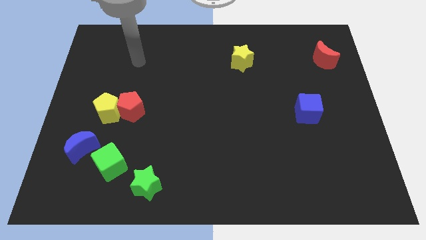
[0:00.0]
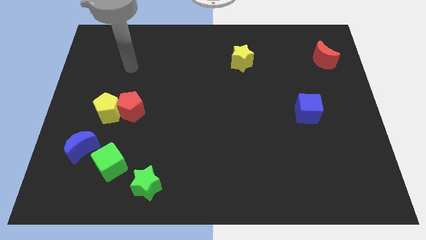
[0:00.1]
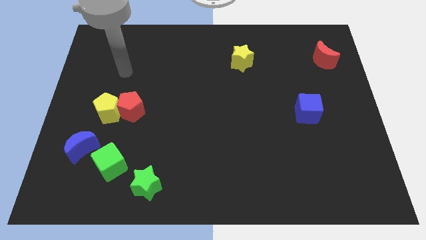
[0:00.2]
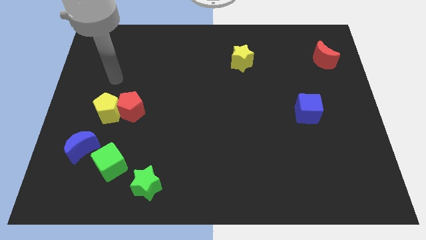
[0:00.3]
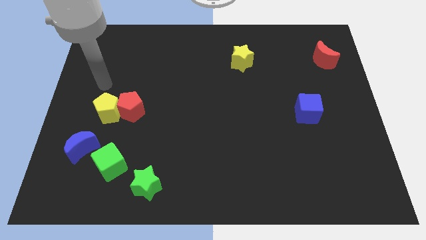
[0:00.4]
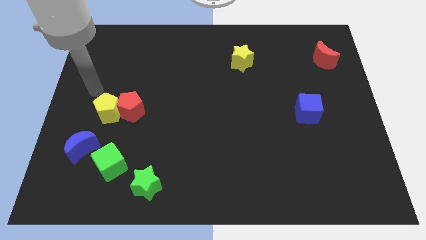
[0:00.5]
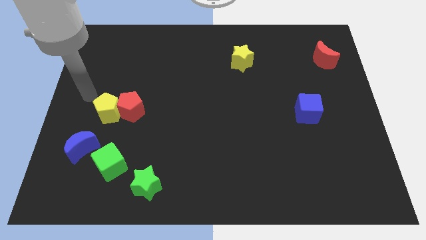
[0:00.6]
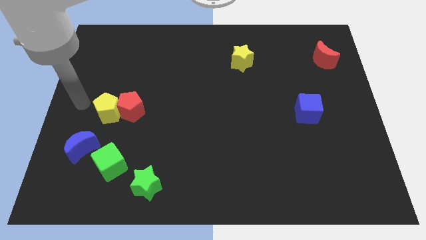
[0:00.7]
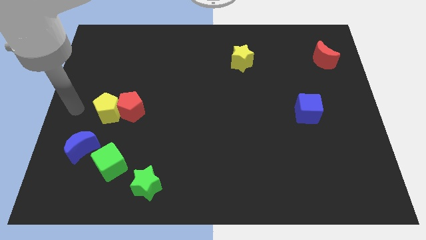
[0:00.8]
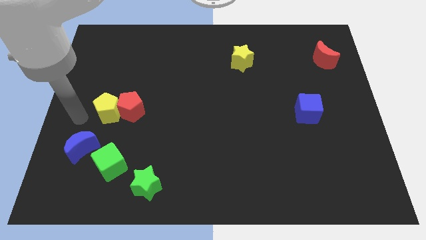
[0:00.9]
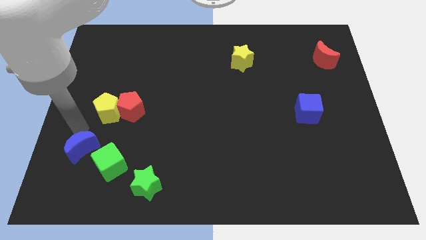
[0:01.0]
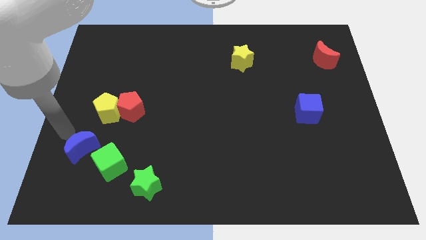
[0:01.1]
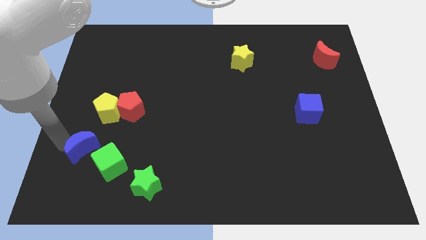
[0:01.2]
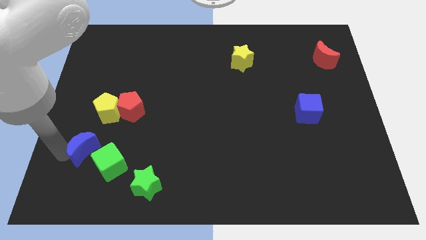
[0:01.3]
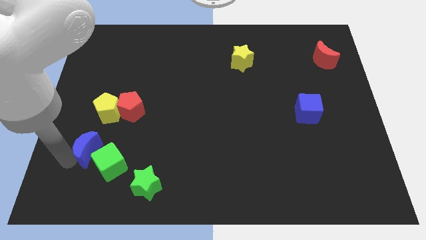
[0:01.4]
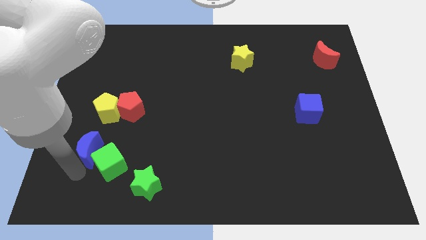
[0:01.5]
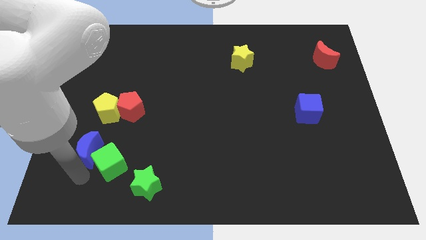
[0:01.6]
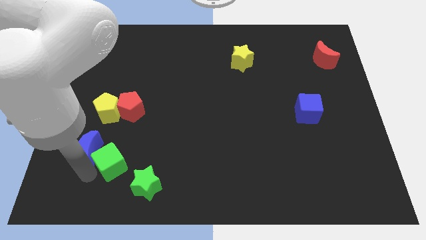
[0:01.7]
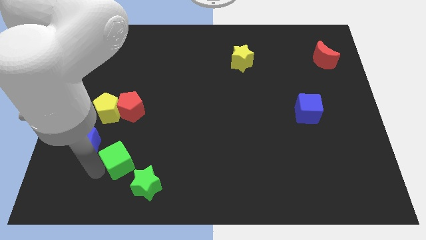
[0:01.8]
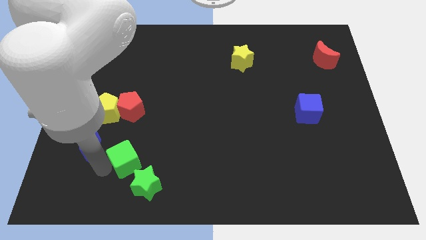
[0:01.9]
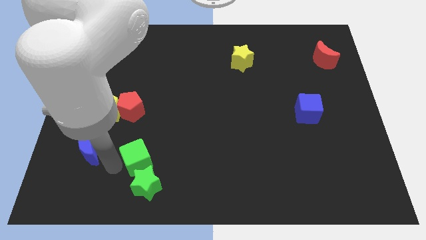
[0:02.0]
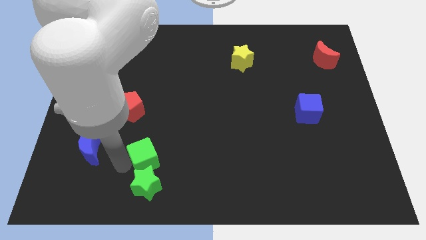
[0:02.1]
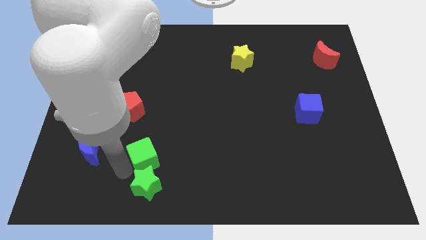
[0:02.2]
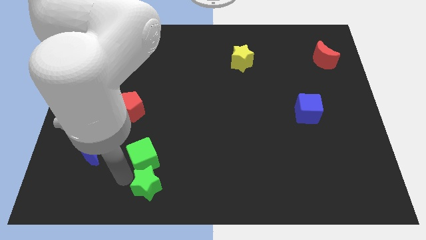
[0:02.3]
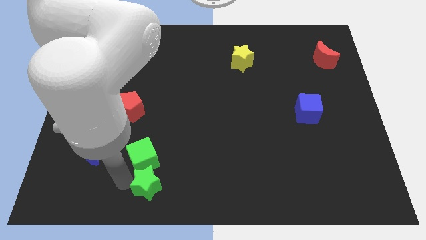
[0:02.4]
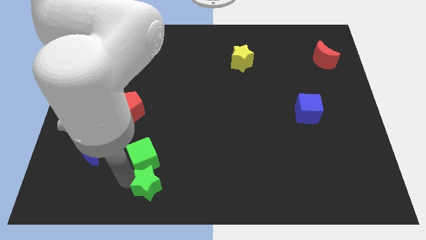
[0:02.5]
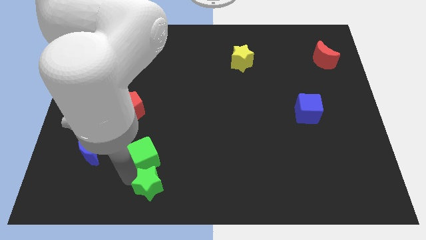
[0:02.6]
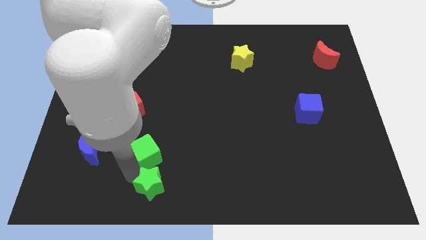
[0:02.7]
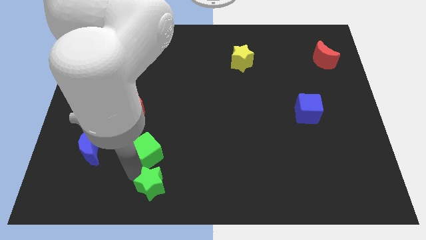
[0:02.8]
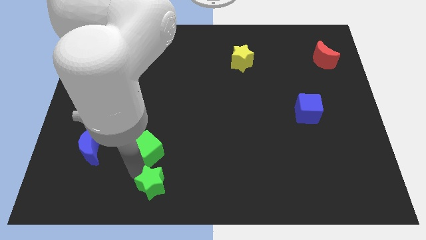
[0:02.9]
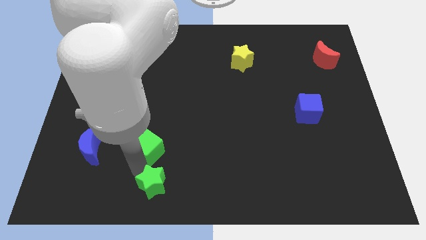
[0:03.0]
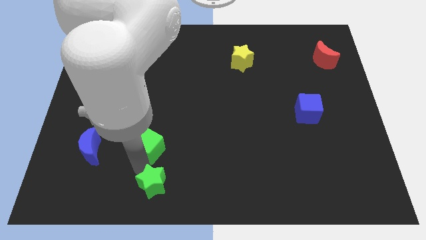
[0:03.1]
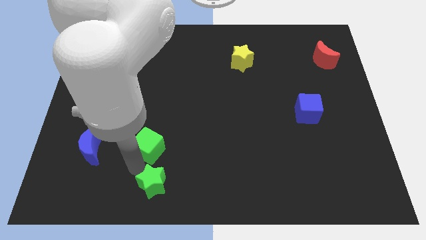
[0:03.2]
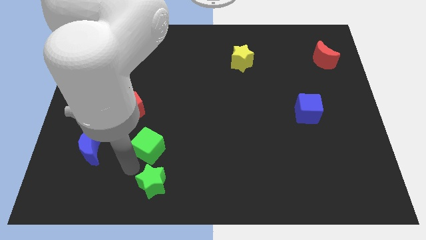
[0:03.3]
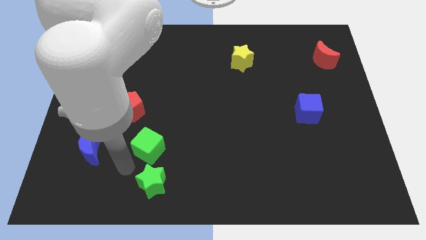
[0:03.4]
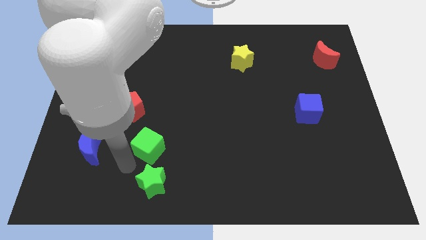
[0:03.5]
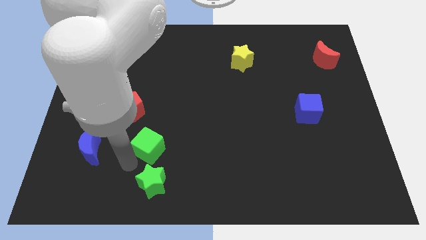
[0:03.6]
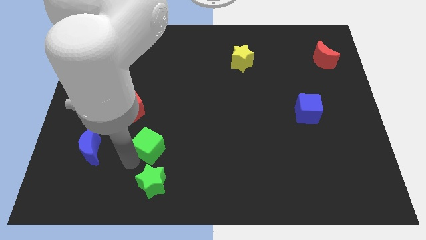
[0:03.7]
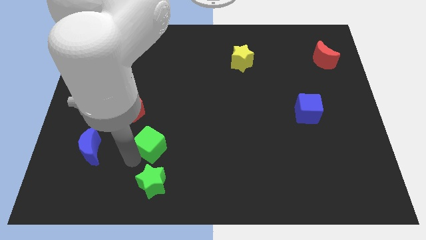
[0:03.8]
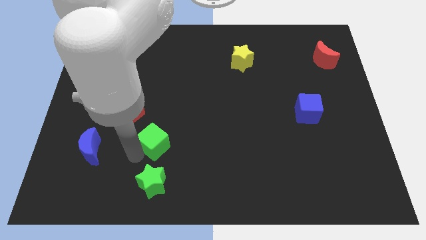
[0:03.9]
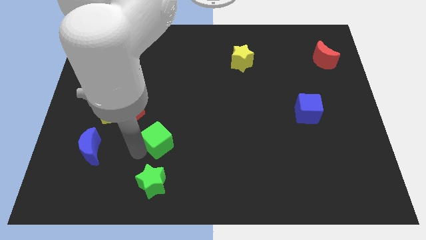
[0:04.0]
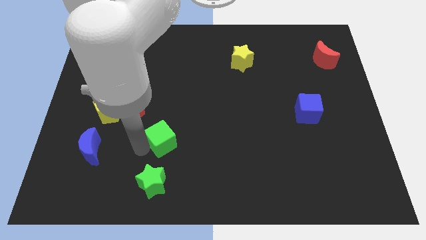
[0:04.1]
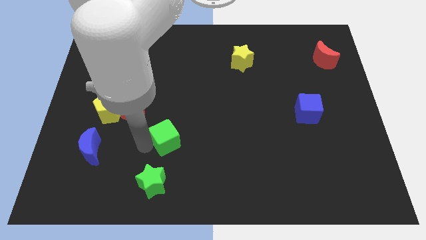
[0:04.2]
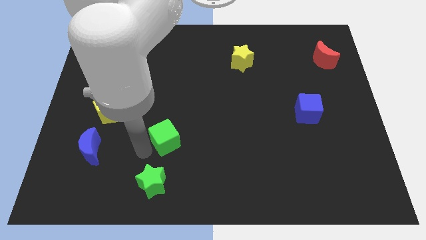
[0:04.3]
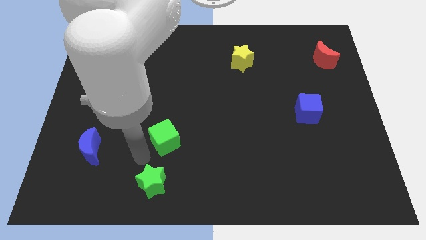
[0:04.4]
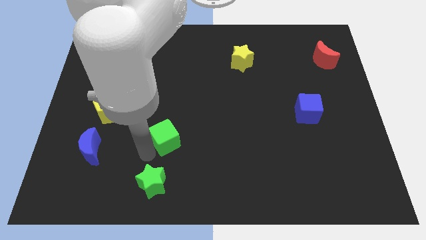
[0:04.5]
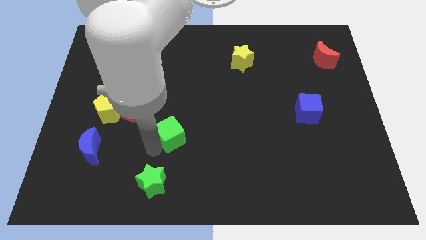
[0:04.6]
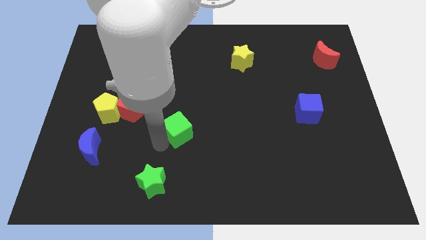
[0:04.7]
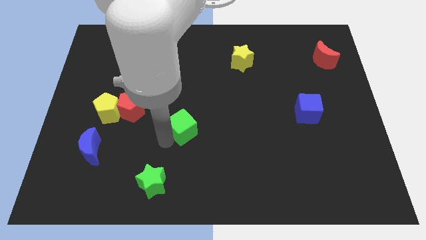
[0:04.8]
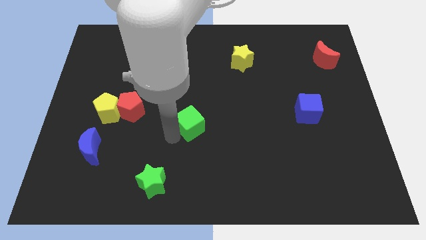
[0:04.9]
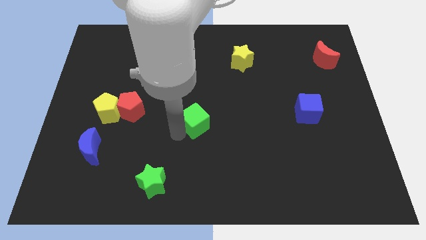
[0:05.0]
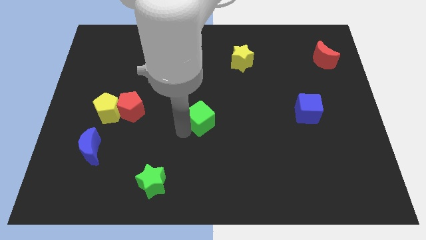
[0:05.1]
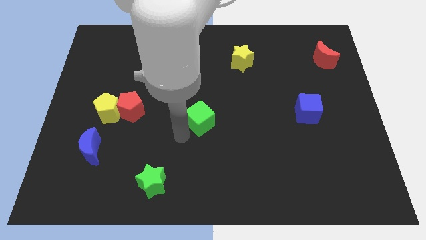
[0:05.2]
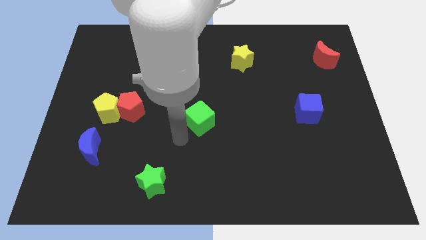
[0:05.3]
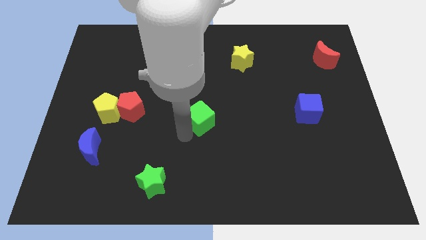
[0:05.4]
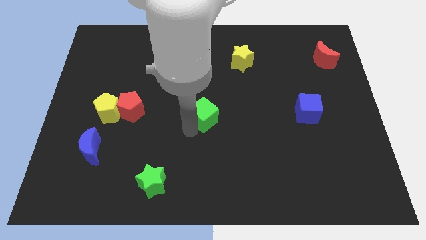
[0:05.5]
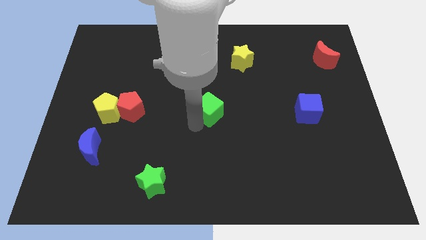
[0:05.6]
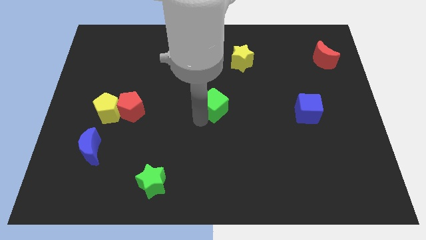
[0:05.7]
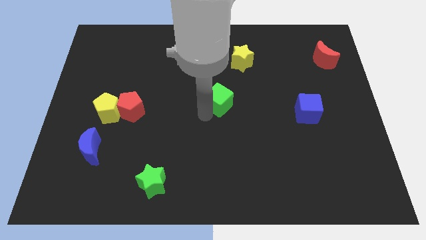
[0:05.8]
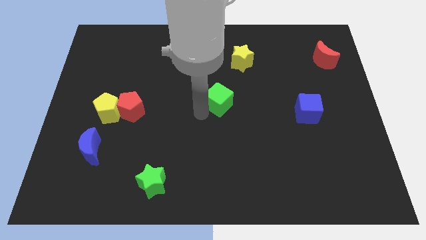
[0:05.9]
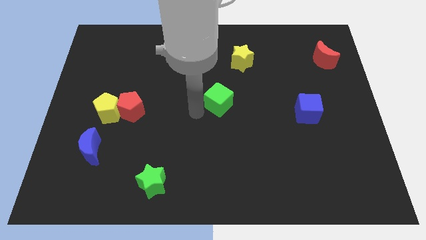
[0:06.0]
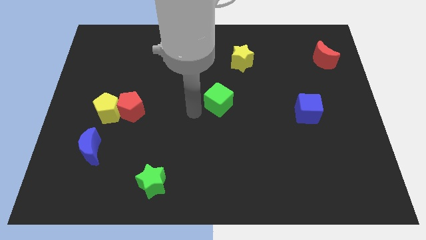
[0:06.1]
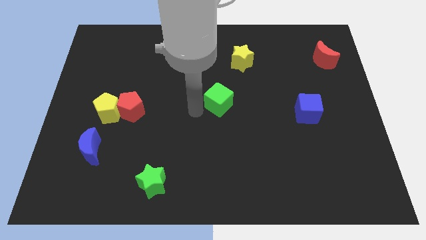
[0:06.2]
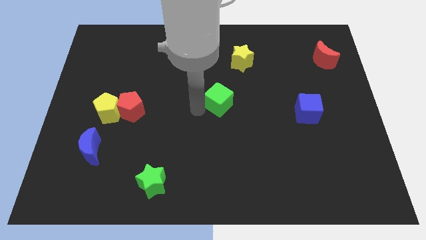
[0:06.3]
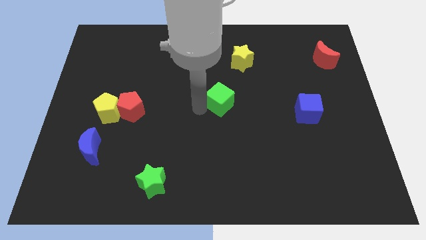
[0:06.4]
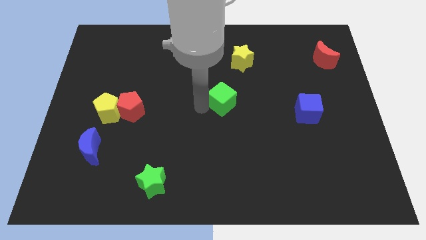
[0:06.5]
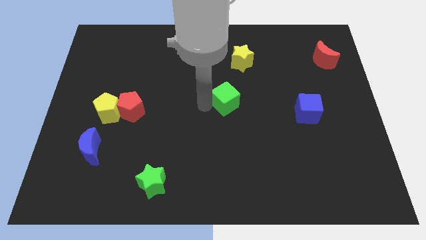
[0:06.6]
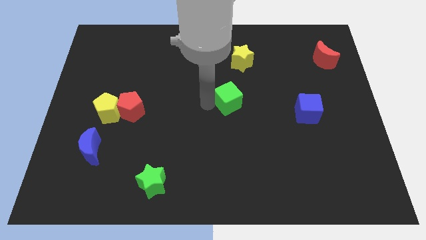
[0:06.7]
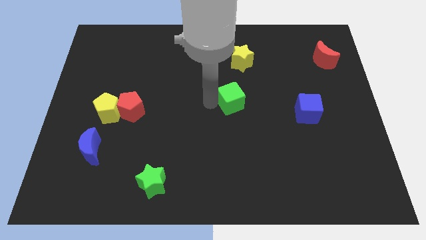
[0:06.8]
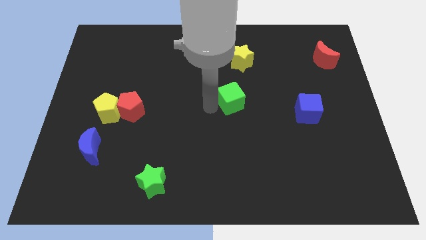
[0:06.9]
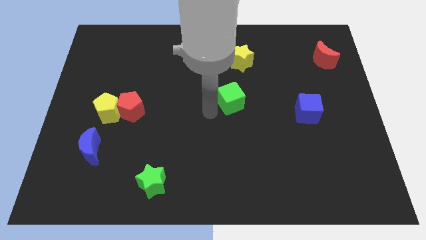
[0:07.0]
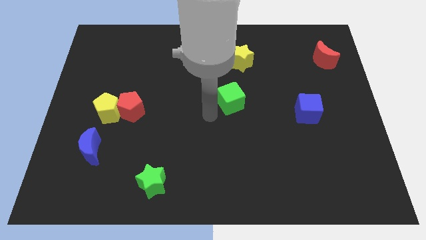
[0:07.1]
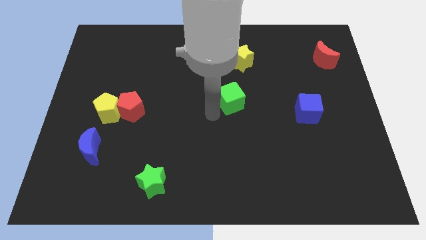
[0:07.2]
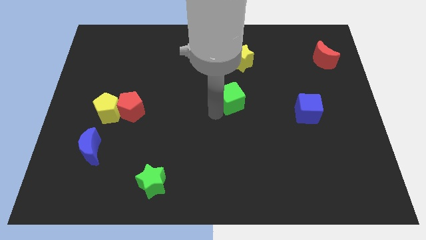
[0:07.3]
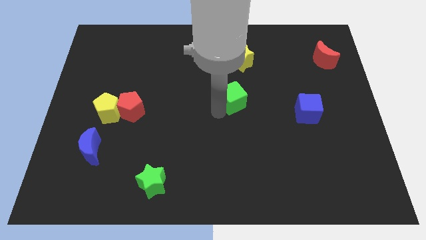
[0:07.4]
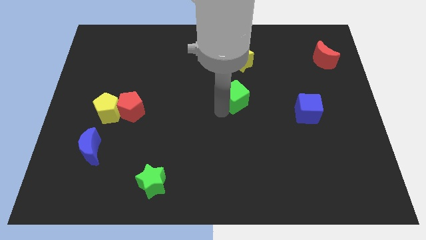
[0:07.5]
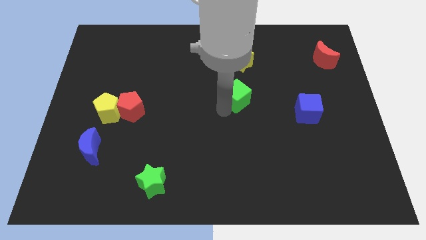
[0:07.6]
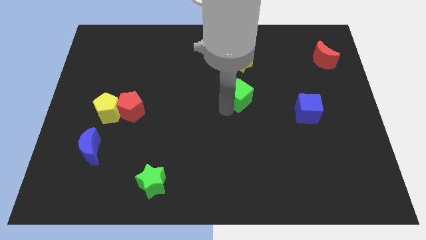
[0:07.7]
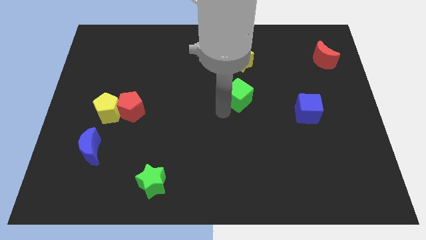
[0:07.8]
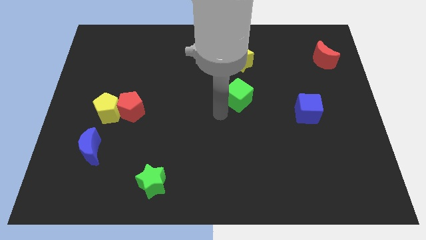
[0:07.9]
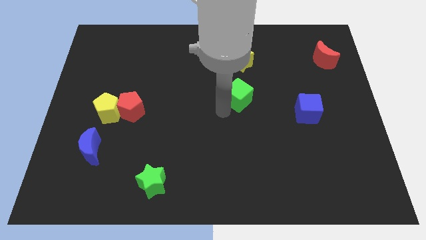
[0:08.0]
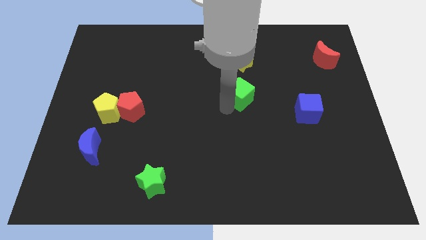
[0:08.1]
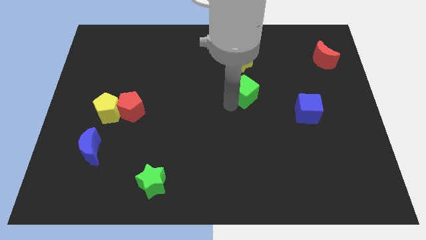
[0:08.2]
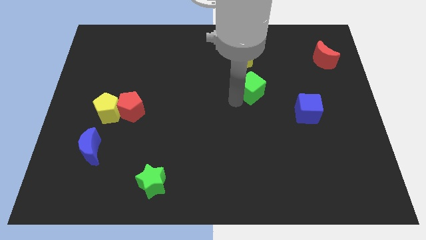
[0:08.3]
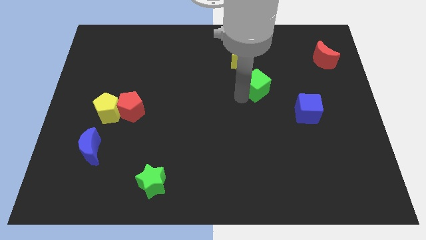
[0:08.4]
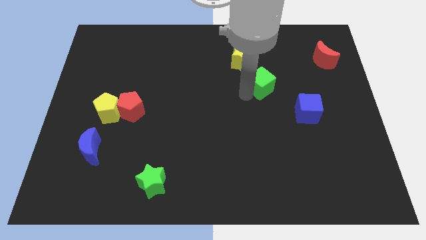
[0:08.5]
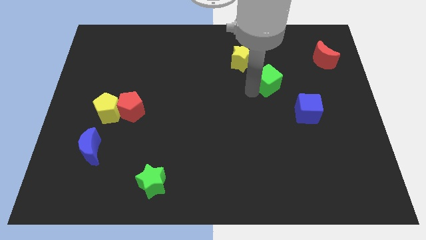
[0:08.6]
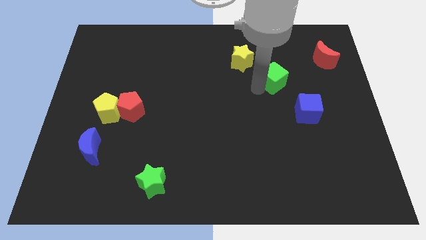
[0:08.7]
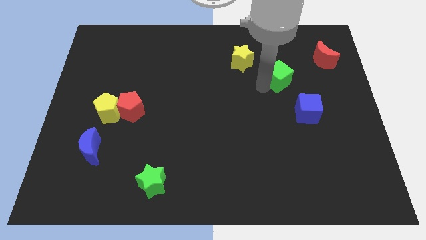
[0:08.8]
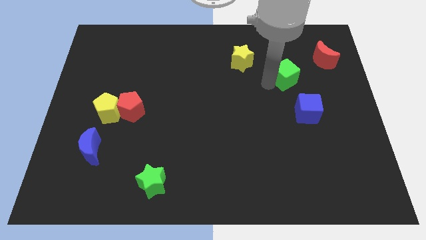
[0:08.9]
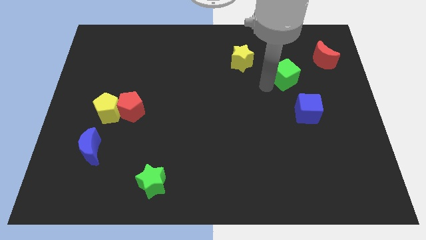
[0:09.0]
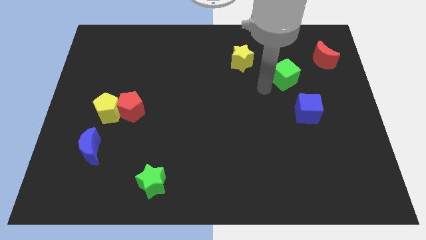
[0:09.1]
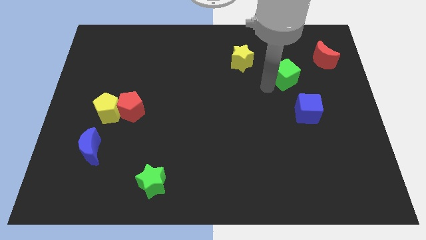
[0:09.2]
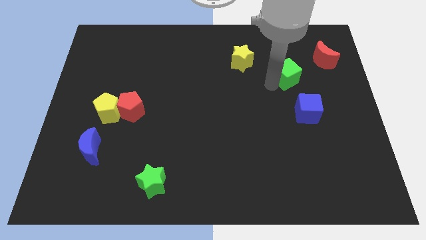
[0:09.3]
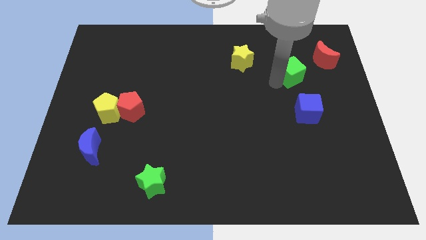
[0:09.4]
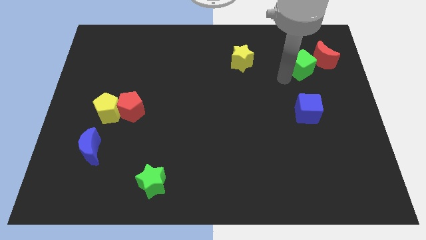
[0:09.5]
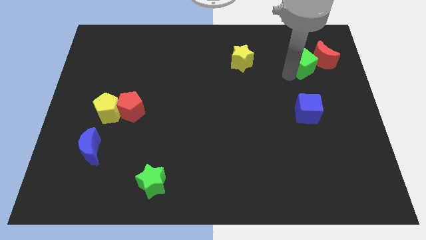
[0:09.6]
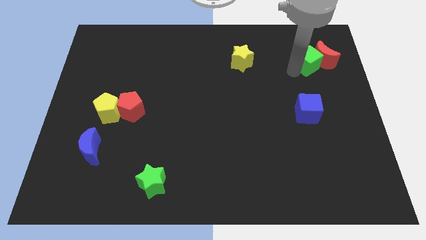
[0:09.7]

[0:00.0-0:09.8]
put the green cube to the red moon
